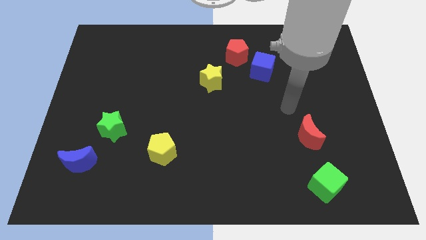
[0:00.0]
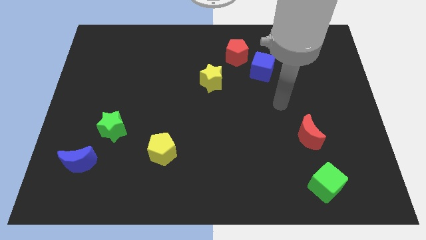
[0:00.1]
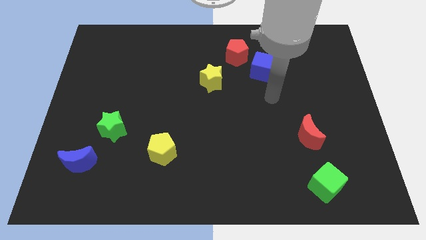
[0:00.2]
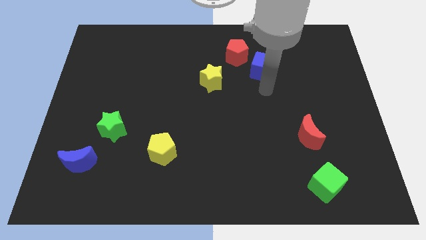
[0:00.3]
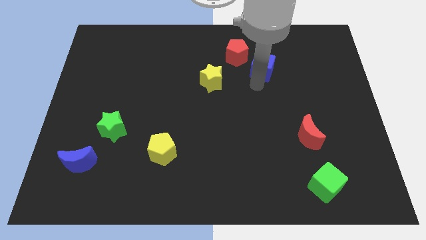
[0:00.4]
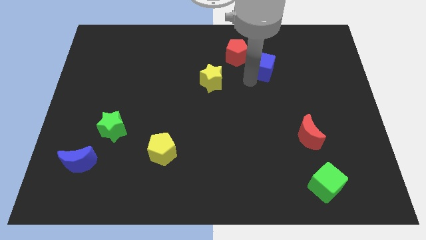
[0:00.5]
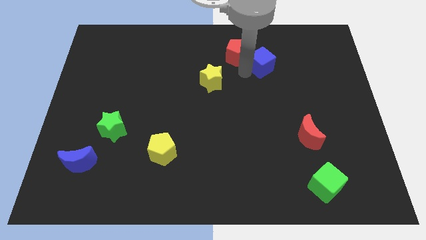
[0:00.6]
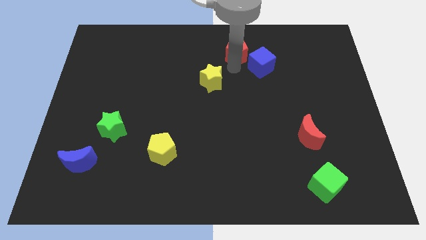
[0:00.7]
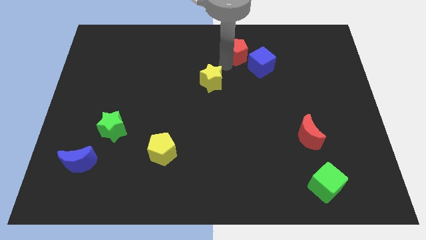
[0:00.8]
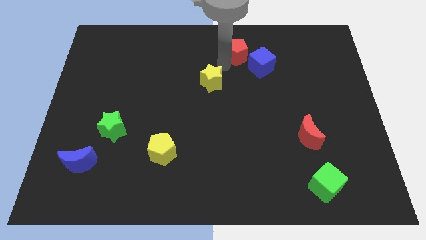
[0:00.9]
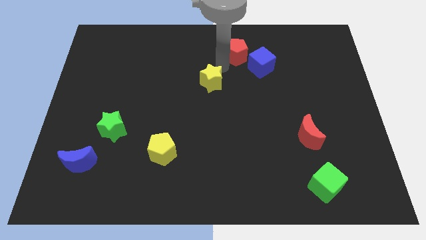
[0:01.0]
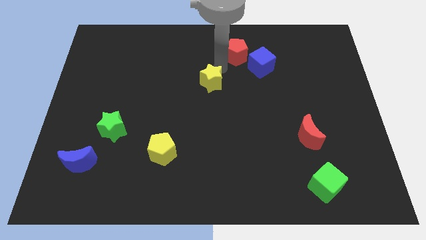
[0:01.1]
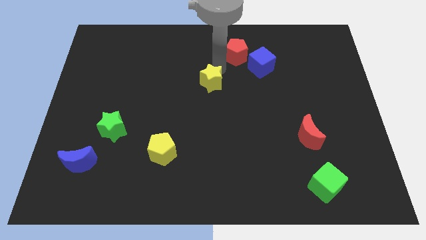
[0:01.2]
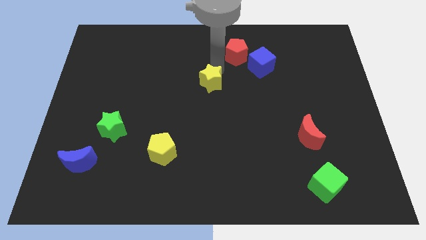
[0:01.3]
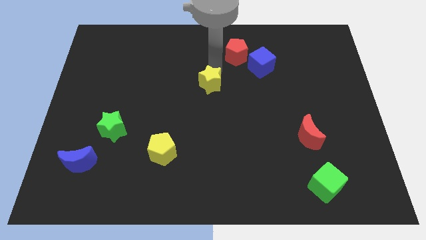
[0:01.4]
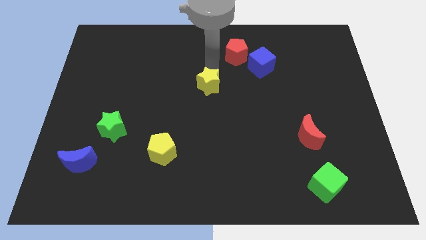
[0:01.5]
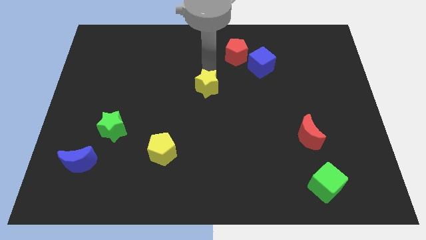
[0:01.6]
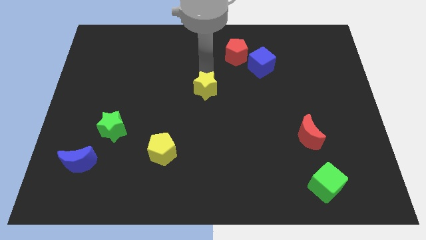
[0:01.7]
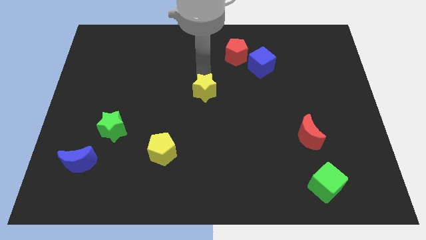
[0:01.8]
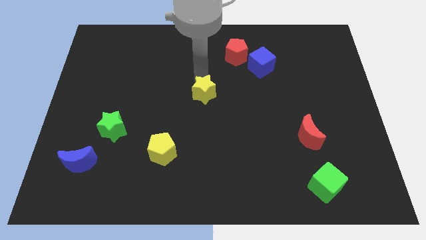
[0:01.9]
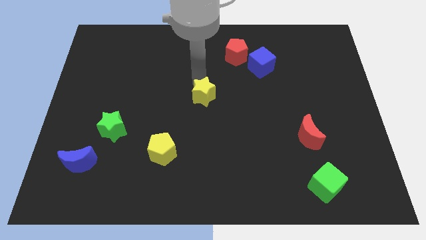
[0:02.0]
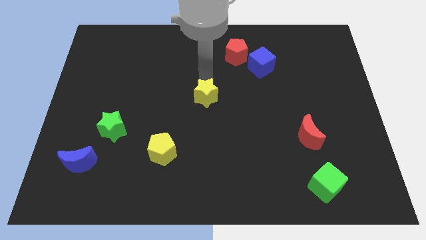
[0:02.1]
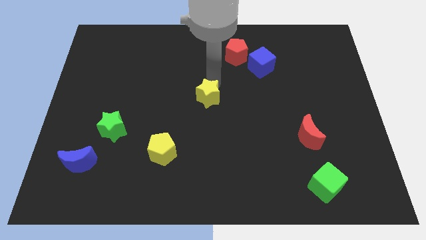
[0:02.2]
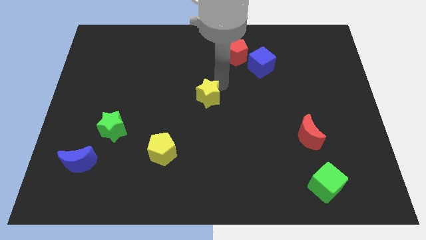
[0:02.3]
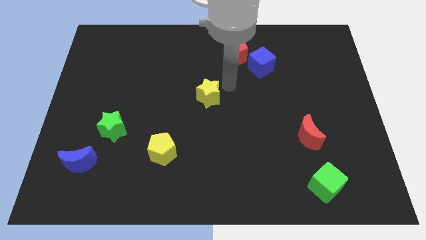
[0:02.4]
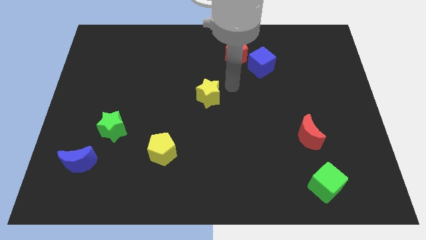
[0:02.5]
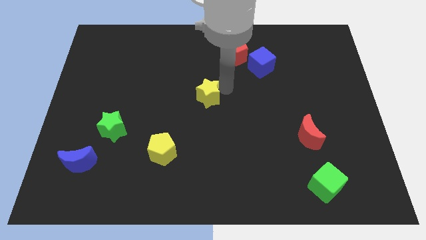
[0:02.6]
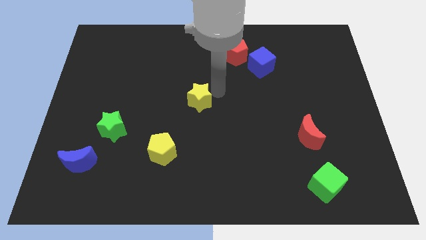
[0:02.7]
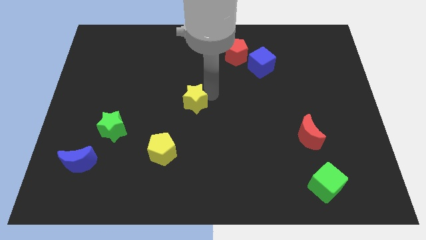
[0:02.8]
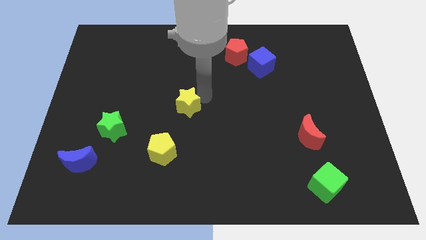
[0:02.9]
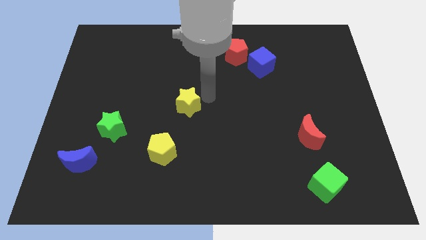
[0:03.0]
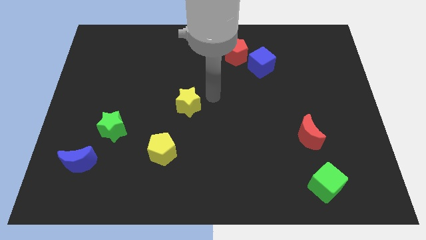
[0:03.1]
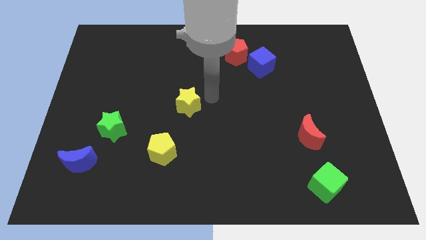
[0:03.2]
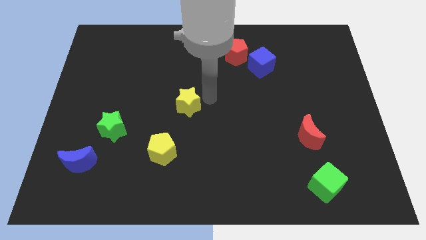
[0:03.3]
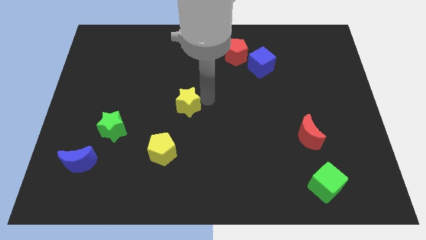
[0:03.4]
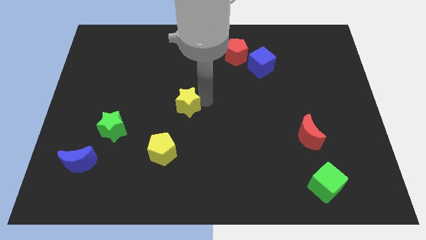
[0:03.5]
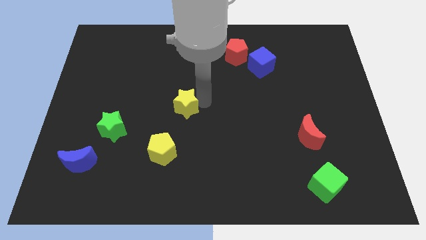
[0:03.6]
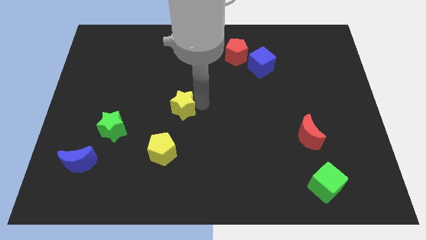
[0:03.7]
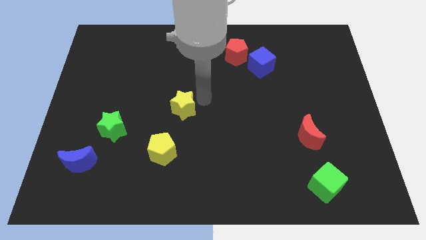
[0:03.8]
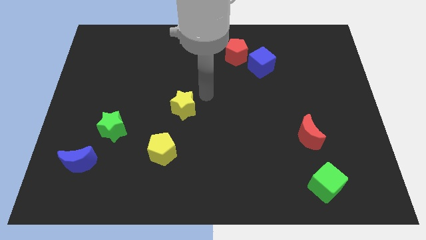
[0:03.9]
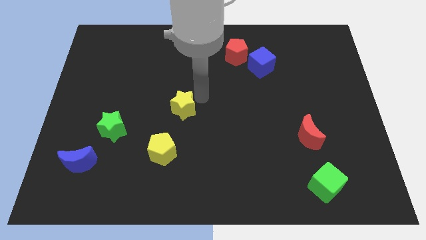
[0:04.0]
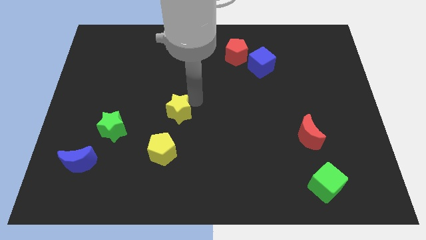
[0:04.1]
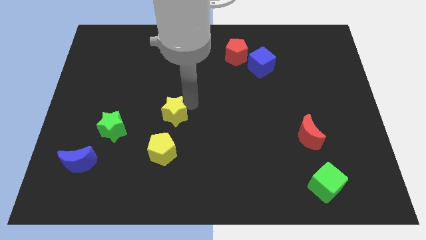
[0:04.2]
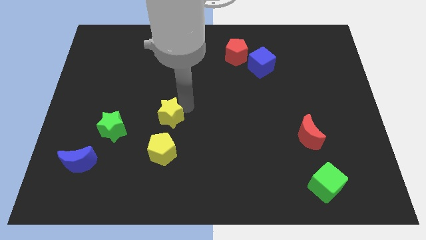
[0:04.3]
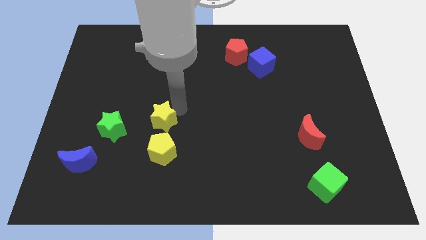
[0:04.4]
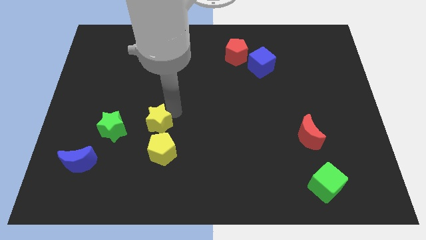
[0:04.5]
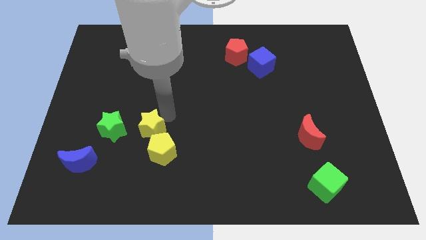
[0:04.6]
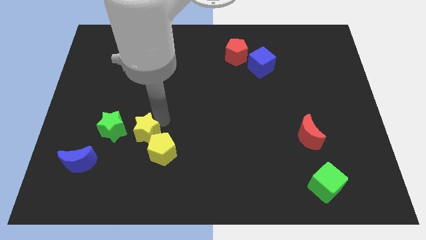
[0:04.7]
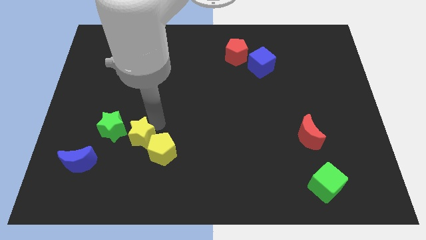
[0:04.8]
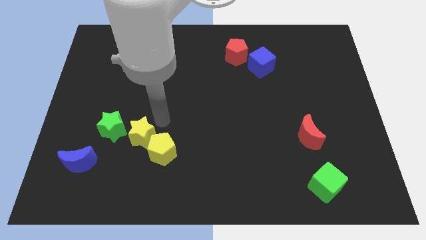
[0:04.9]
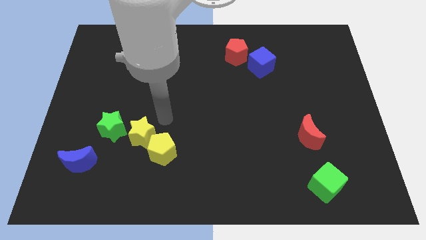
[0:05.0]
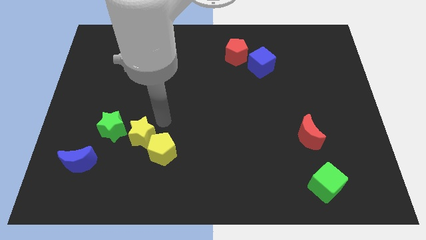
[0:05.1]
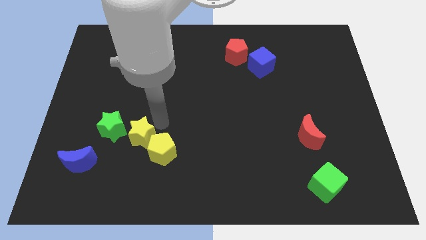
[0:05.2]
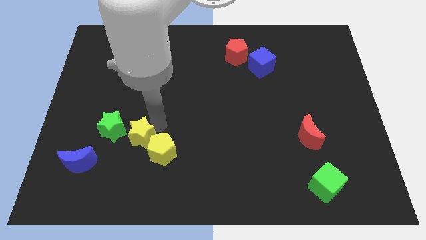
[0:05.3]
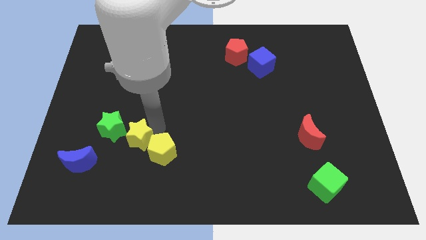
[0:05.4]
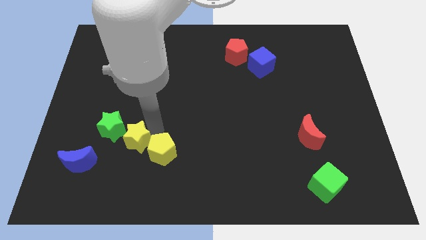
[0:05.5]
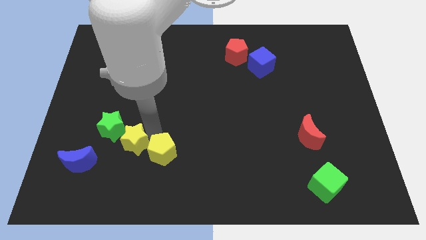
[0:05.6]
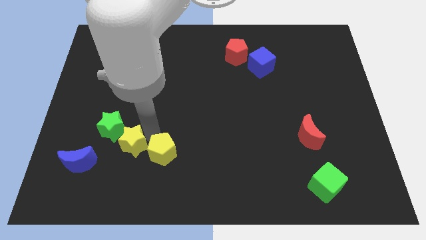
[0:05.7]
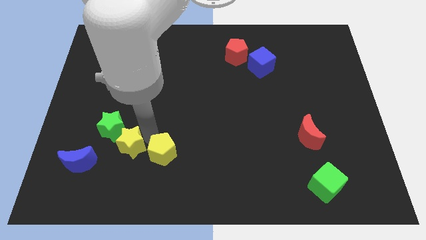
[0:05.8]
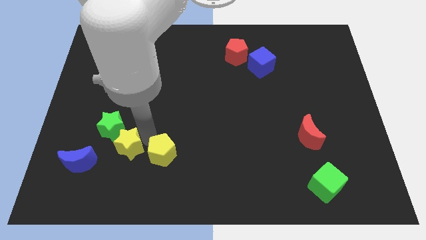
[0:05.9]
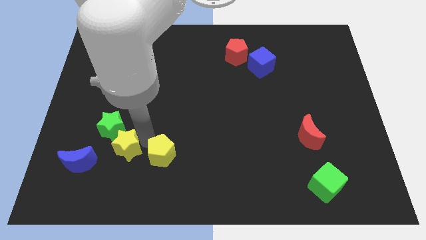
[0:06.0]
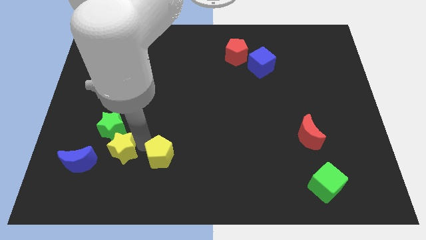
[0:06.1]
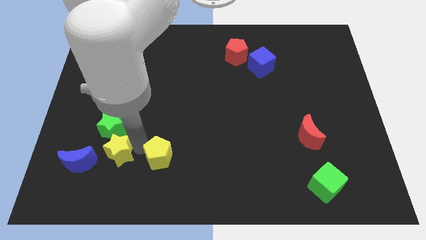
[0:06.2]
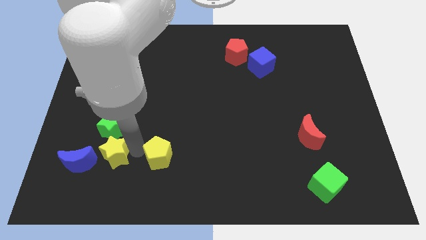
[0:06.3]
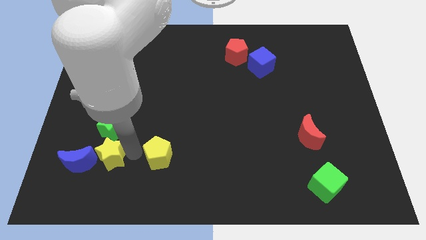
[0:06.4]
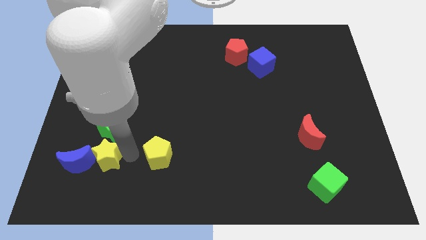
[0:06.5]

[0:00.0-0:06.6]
put the yellow star to the blue moon

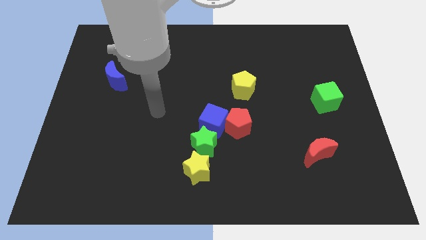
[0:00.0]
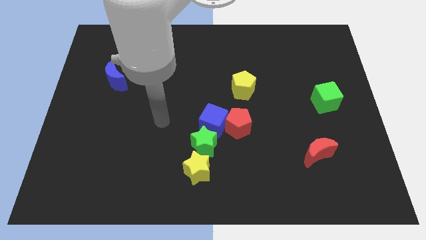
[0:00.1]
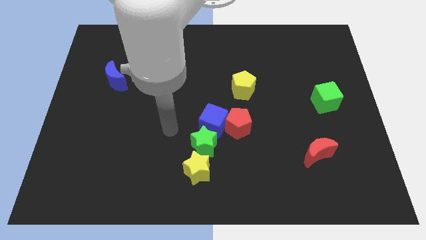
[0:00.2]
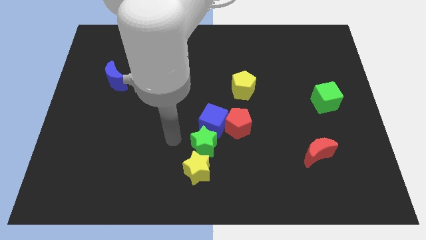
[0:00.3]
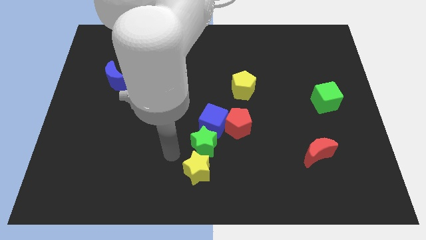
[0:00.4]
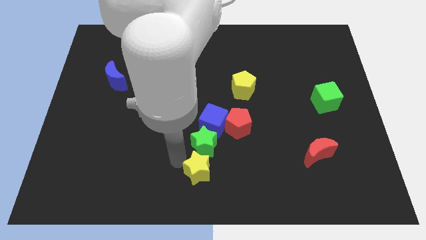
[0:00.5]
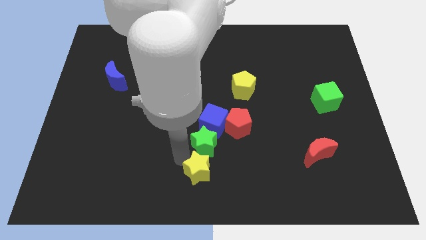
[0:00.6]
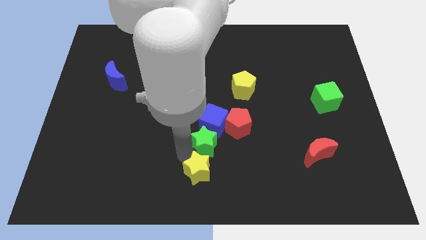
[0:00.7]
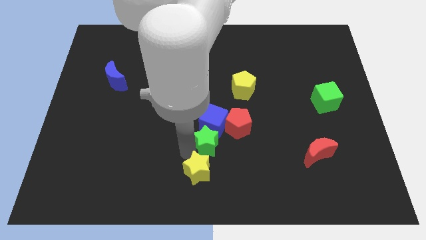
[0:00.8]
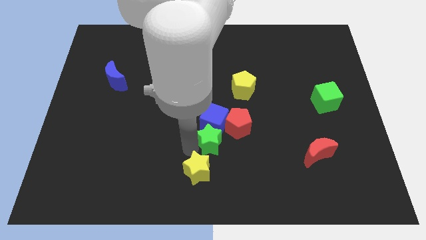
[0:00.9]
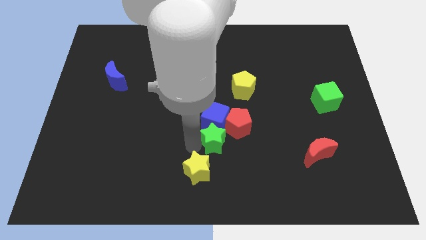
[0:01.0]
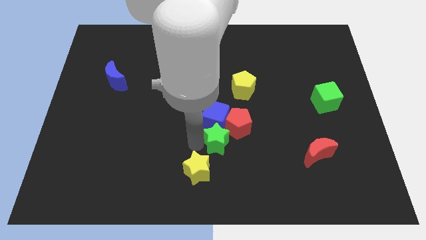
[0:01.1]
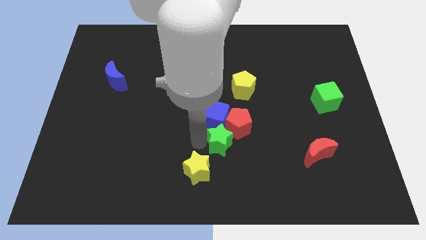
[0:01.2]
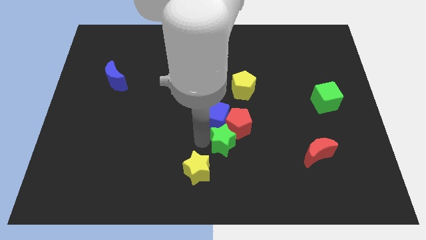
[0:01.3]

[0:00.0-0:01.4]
push the green star next to the red pentagon
